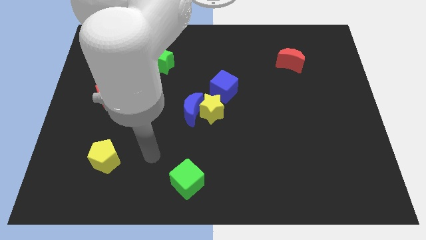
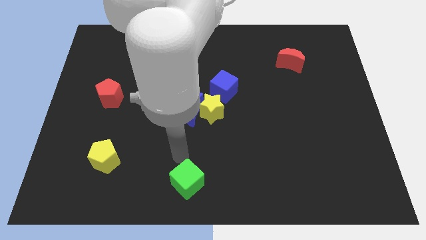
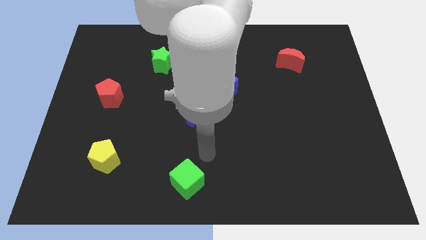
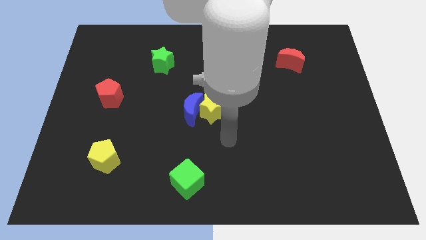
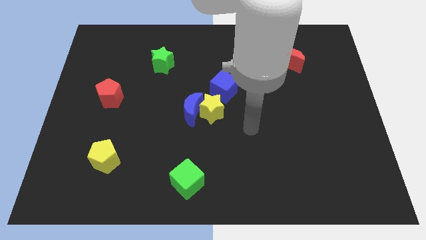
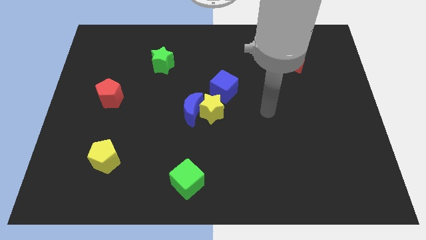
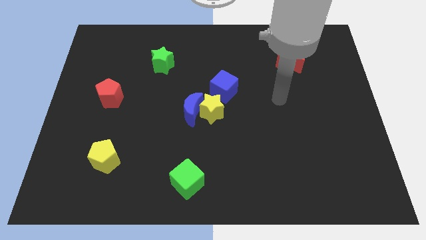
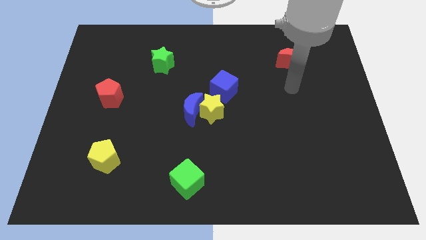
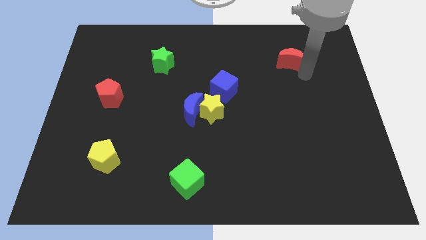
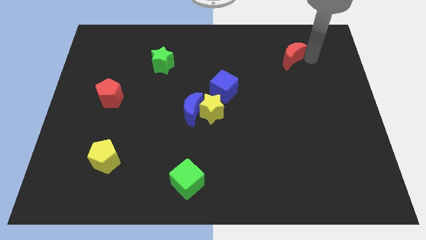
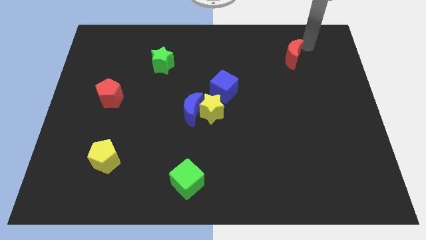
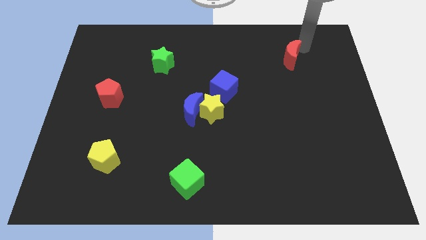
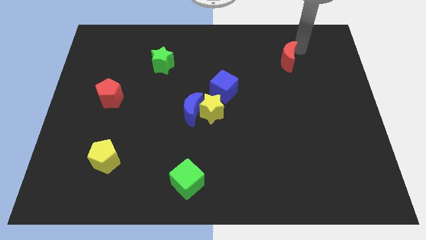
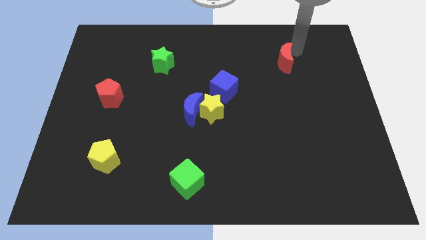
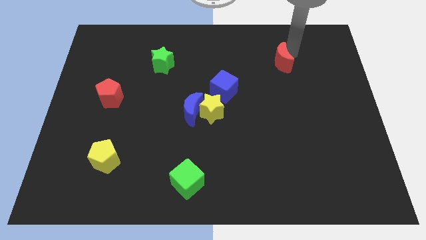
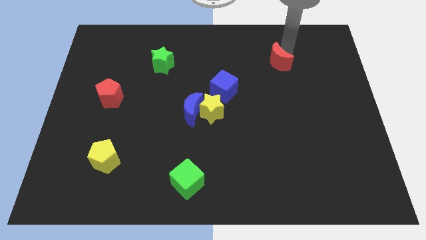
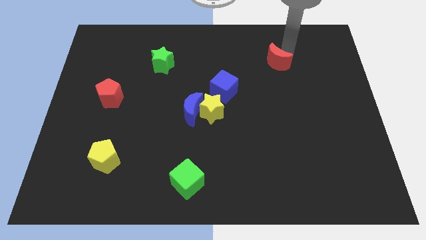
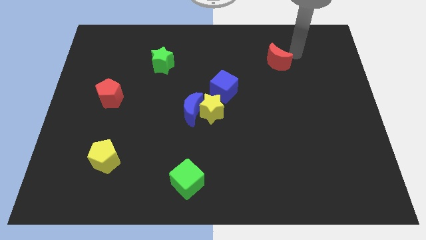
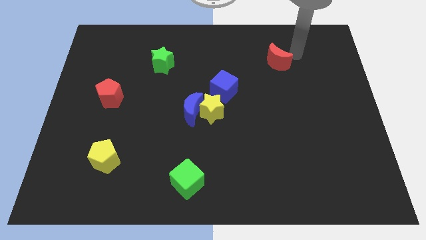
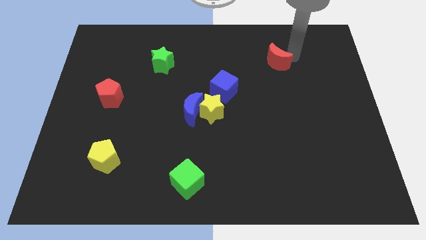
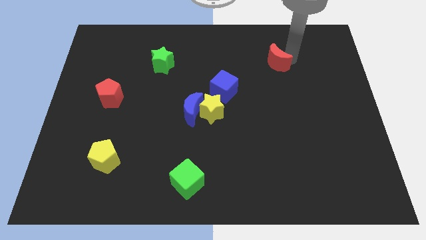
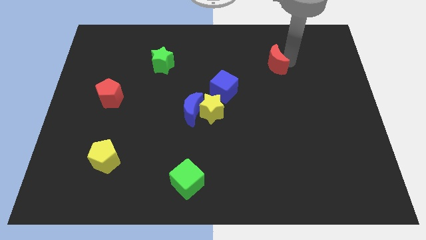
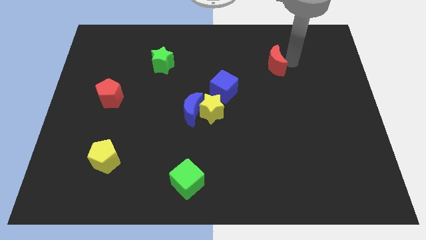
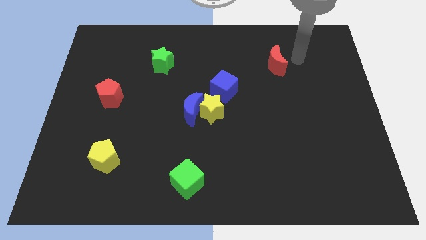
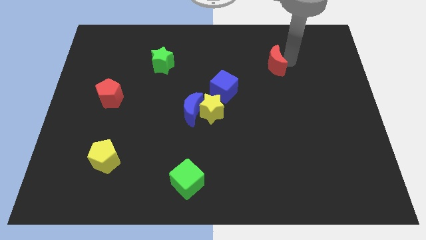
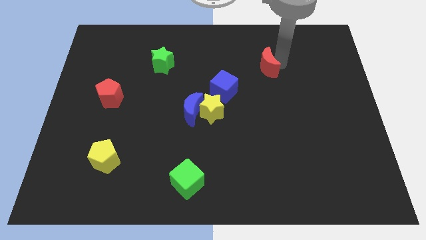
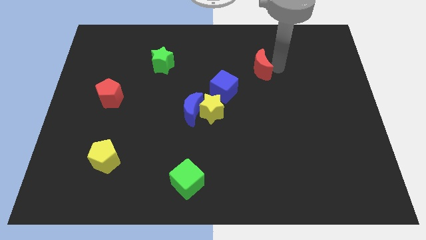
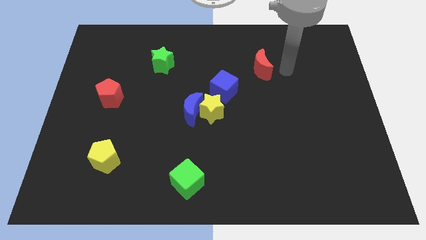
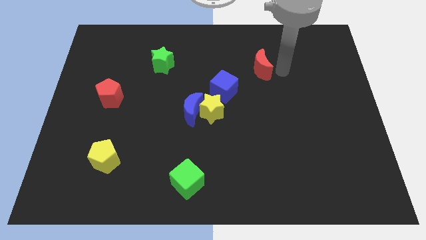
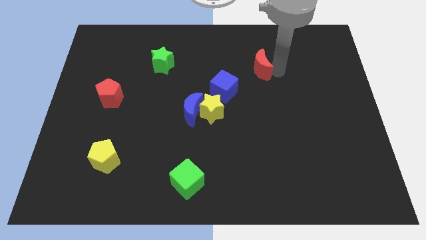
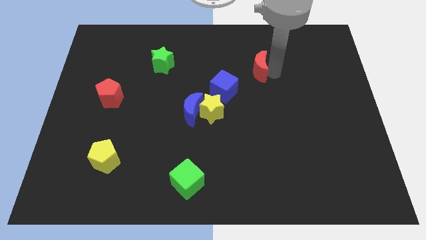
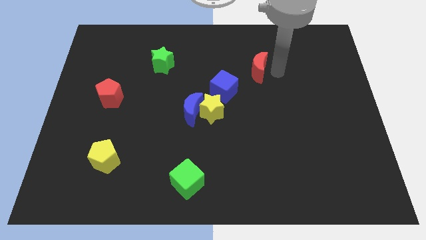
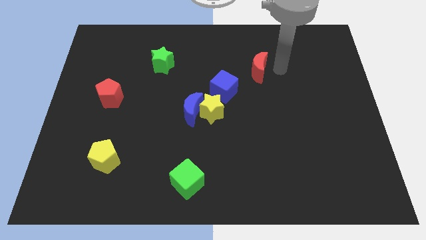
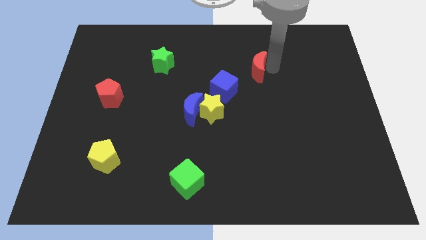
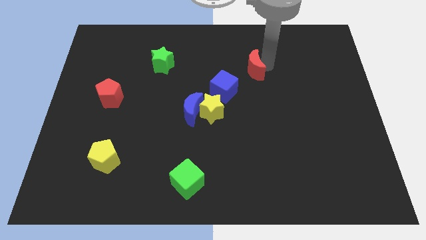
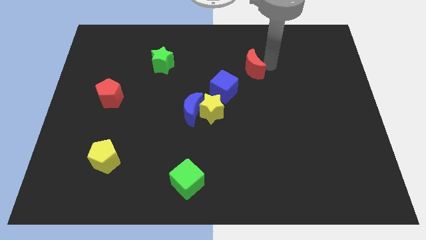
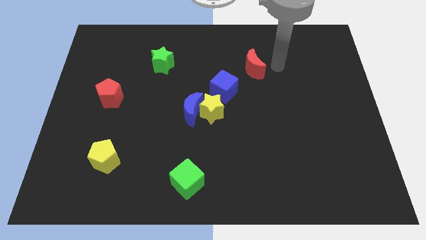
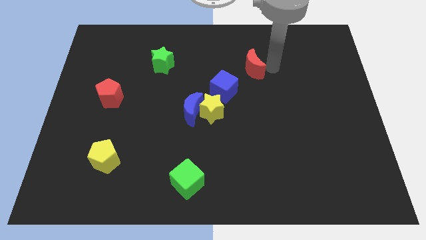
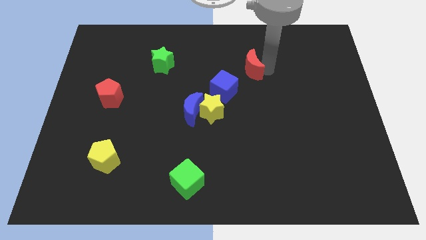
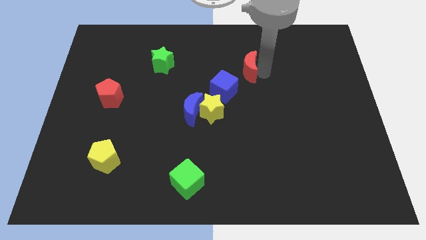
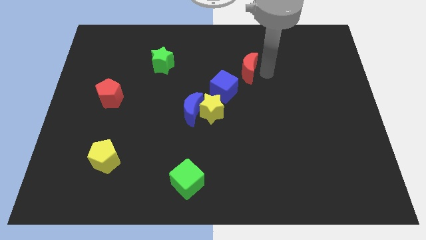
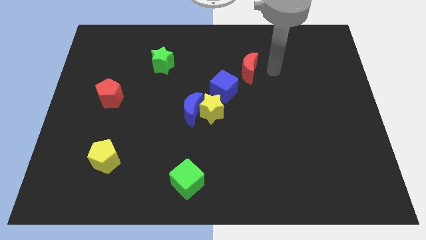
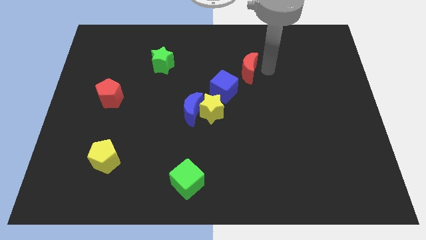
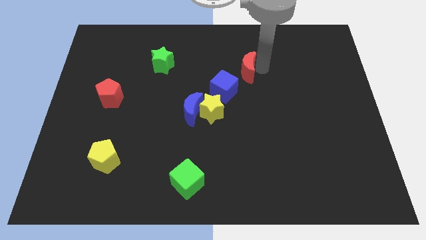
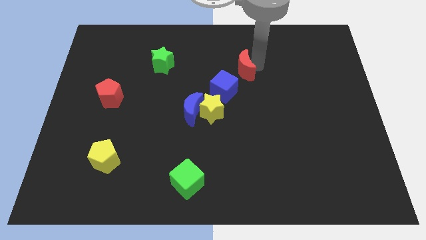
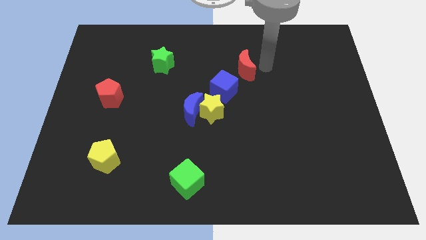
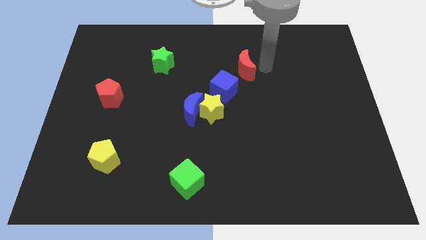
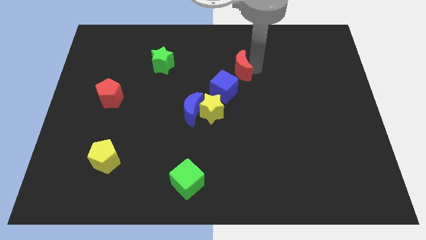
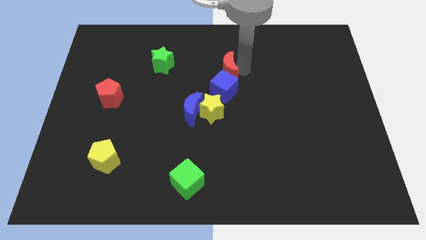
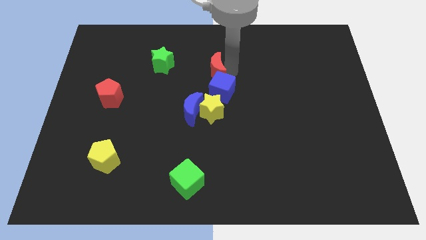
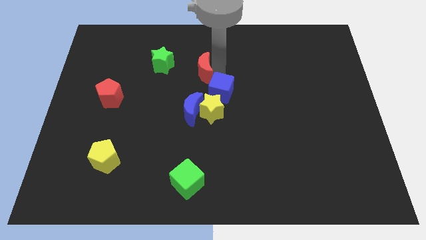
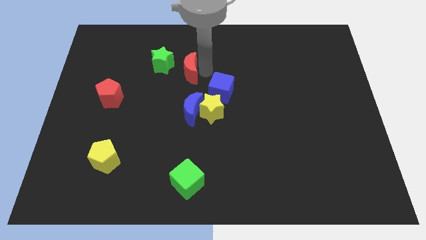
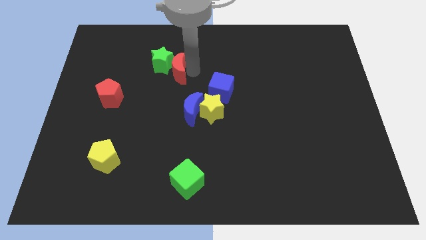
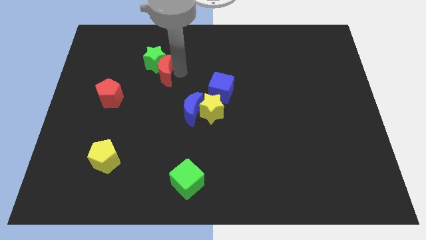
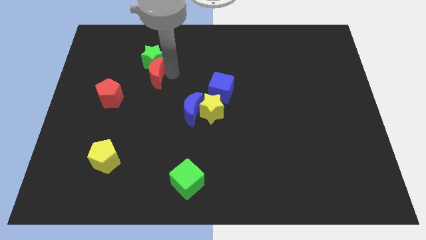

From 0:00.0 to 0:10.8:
slide the red moon to the bottom left of the green star

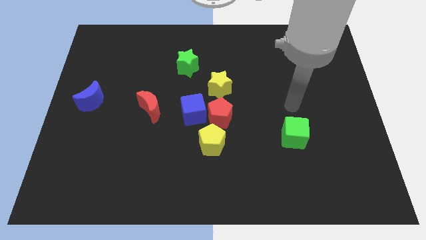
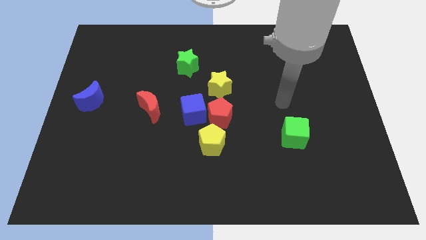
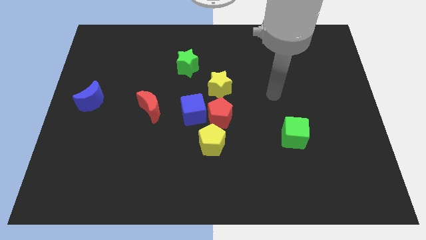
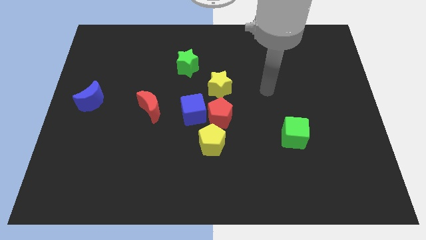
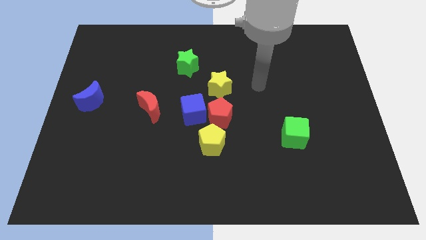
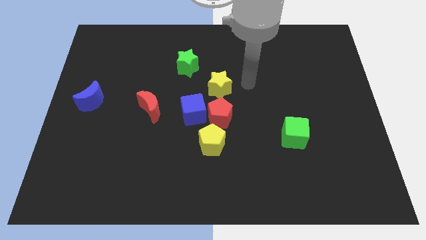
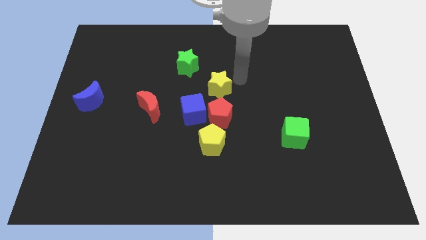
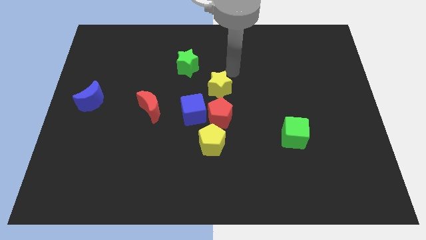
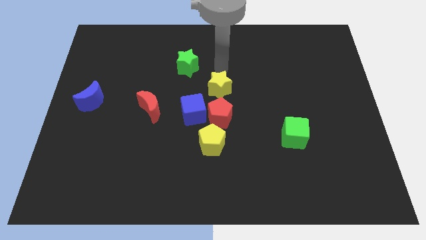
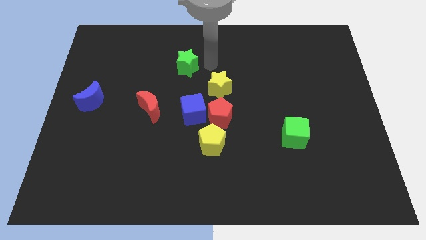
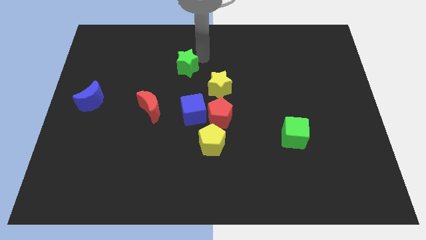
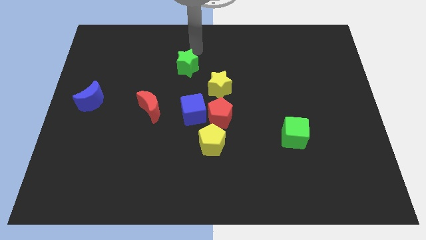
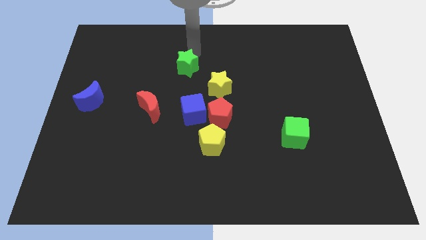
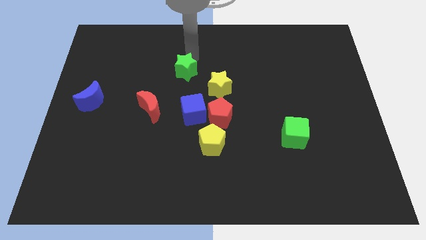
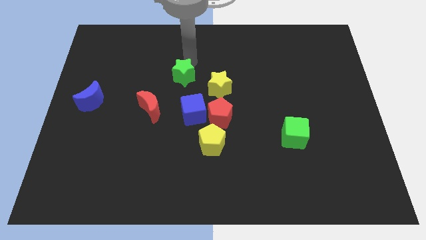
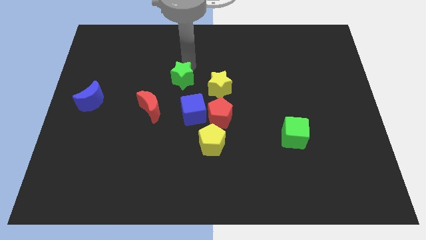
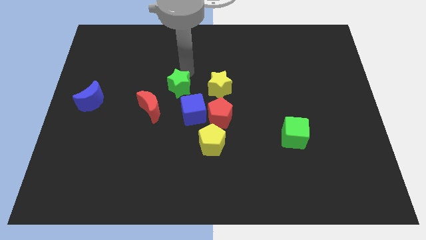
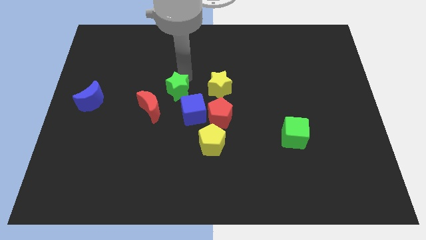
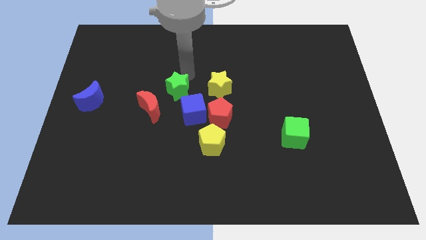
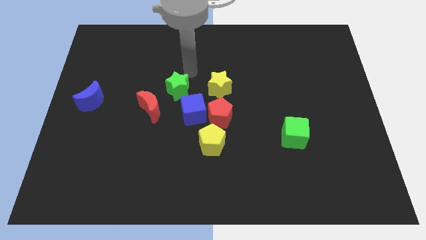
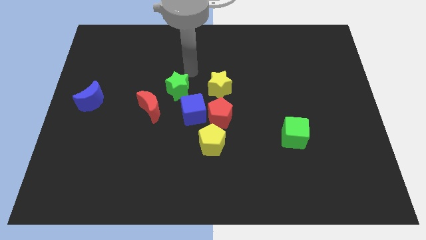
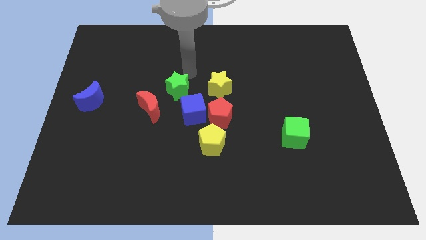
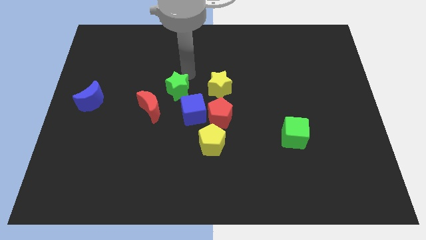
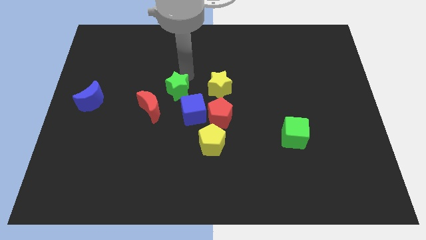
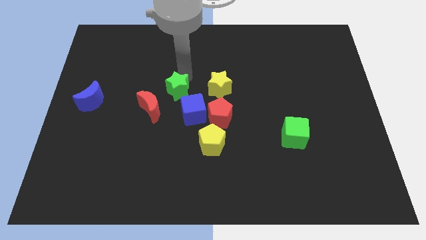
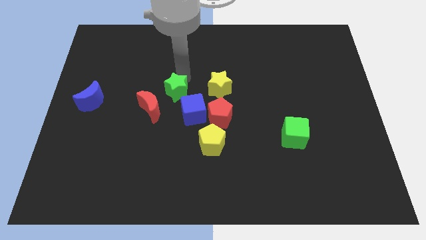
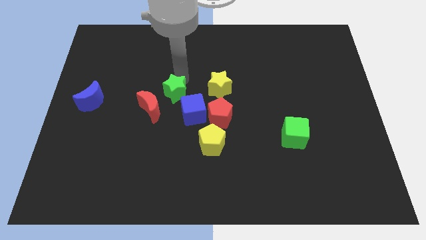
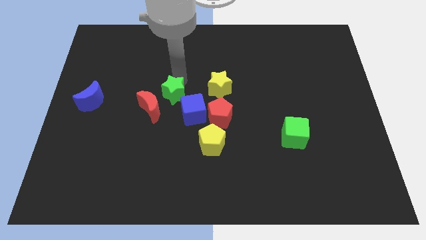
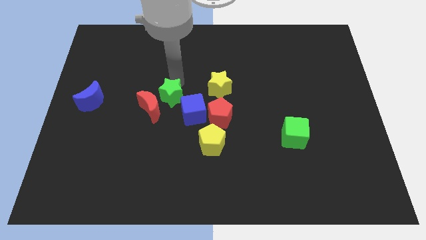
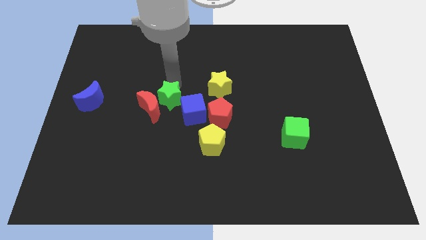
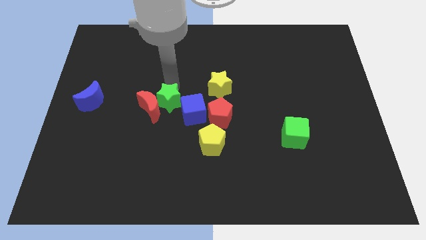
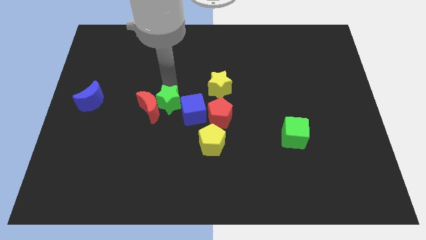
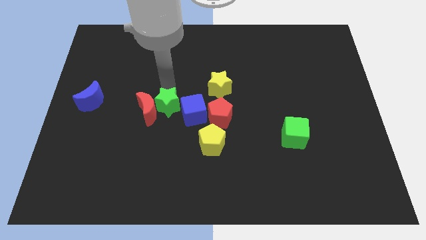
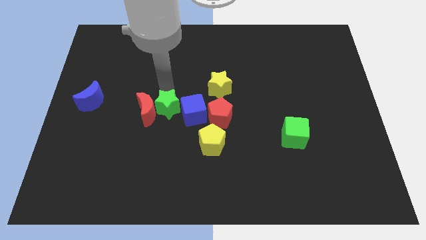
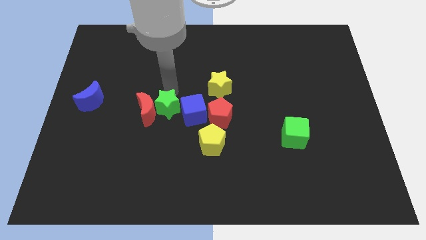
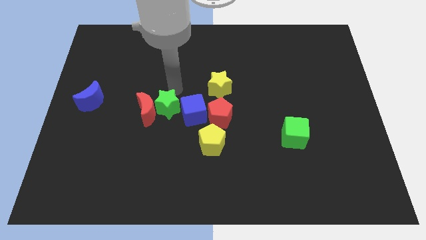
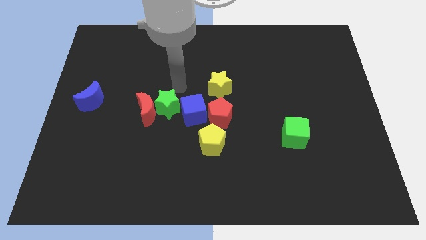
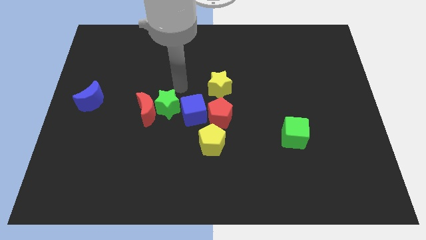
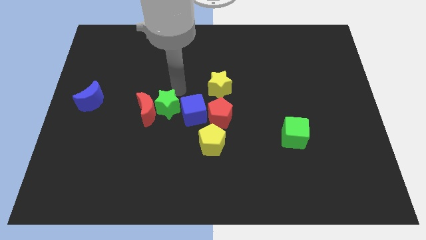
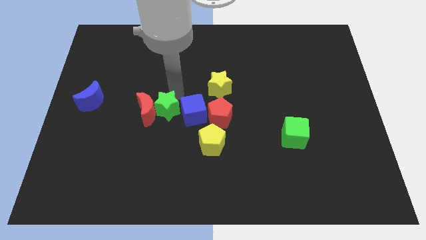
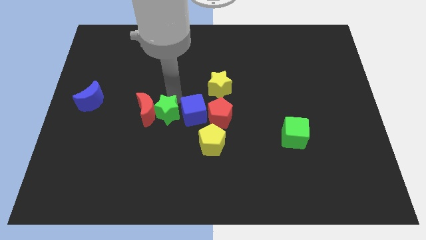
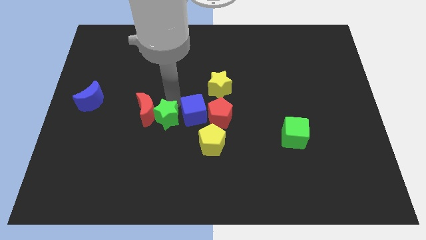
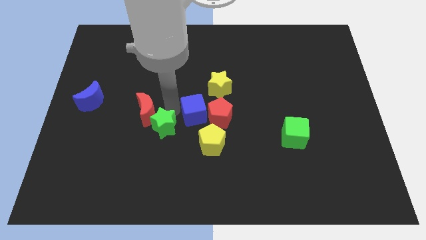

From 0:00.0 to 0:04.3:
put the green star to the bottom of the red moon
